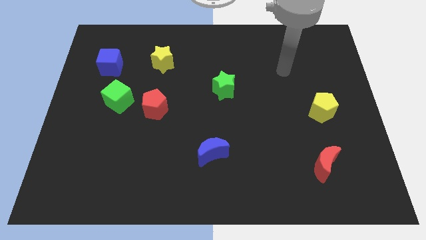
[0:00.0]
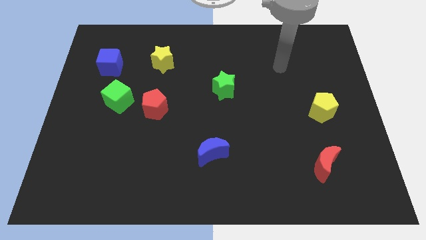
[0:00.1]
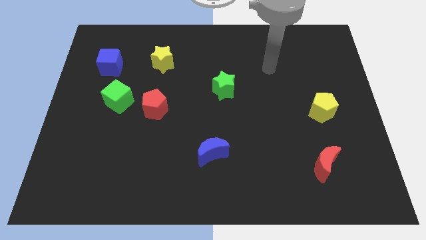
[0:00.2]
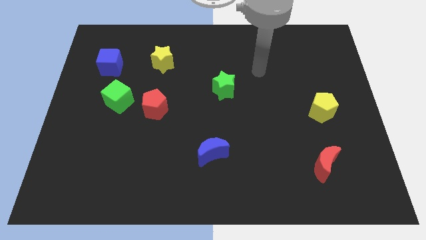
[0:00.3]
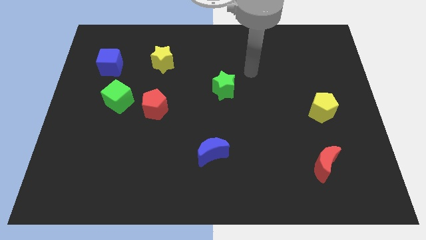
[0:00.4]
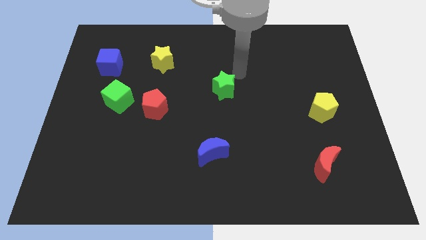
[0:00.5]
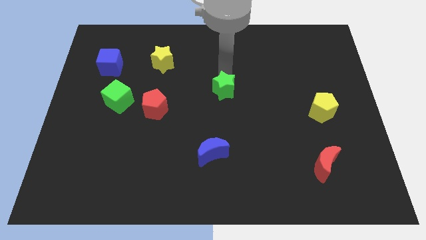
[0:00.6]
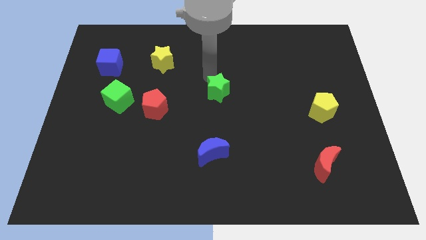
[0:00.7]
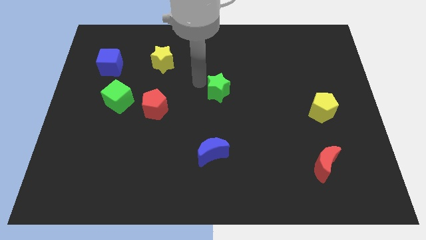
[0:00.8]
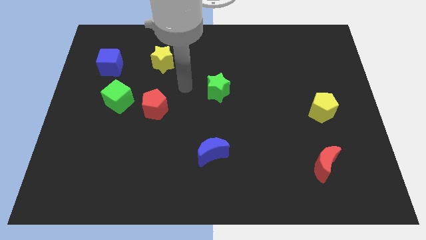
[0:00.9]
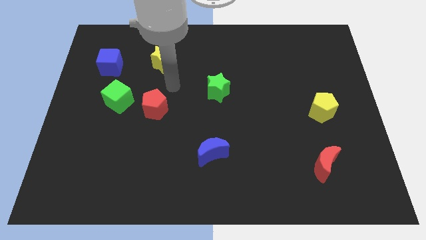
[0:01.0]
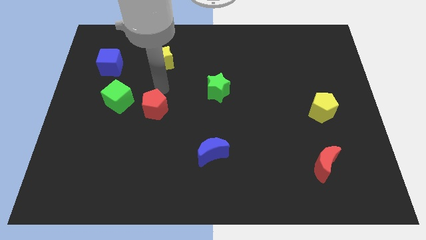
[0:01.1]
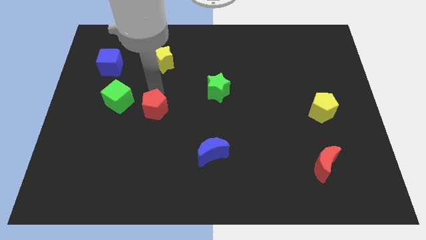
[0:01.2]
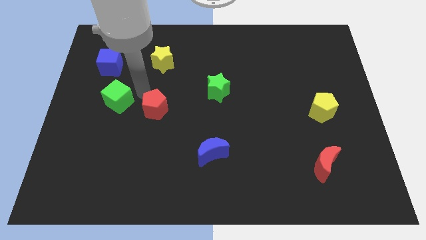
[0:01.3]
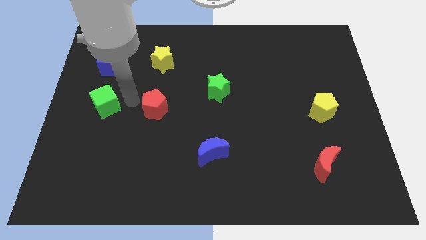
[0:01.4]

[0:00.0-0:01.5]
move the red pentagon away from the green cube

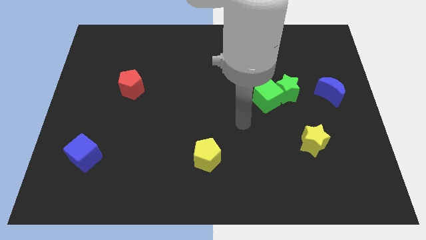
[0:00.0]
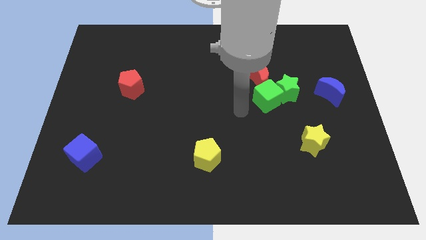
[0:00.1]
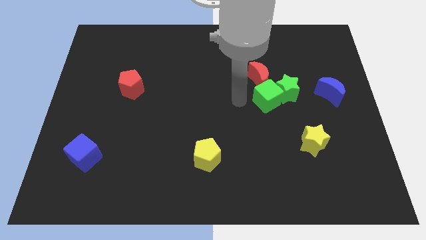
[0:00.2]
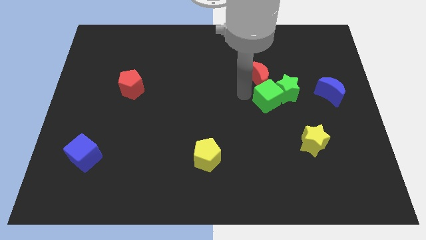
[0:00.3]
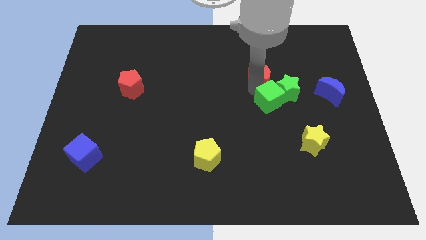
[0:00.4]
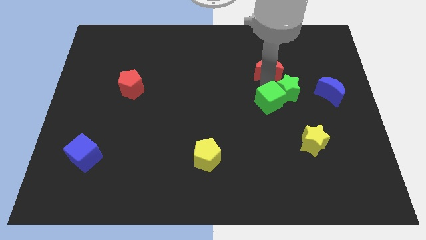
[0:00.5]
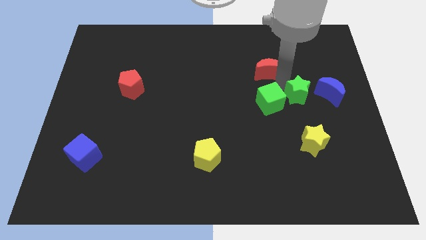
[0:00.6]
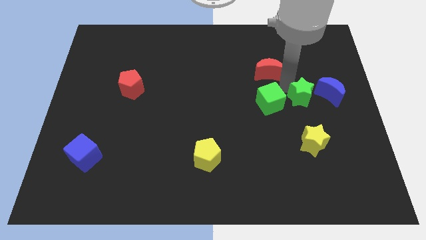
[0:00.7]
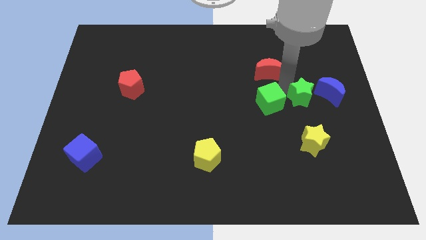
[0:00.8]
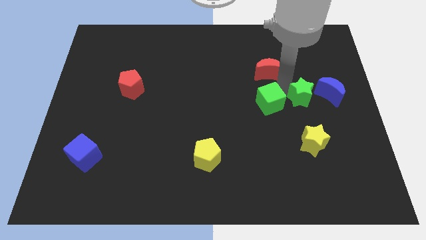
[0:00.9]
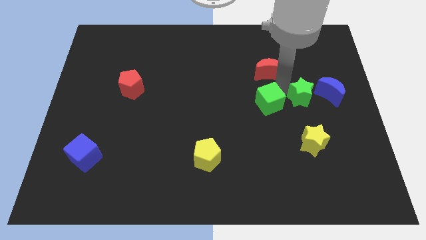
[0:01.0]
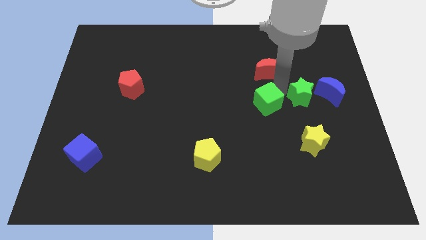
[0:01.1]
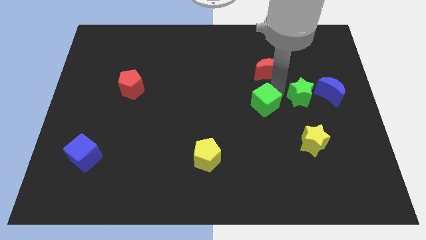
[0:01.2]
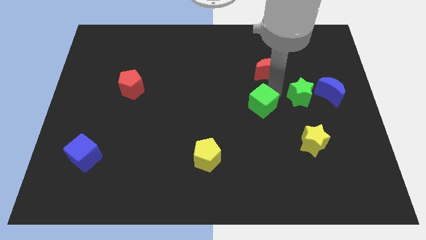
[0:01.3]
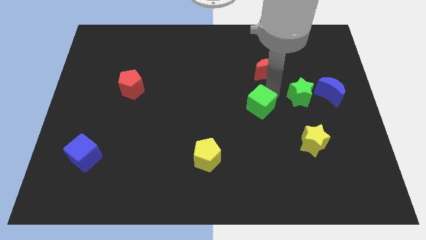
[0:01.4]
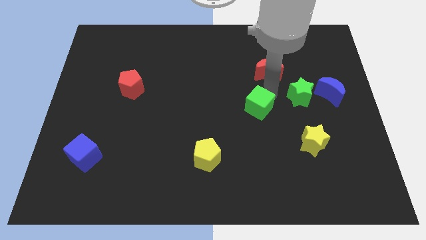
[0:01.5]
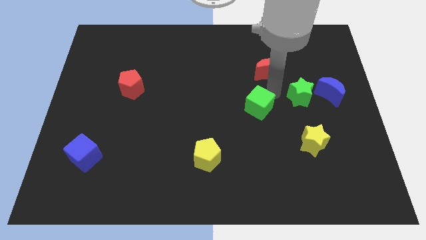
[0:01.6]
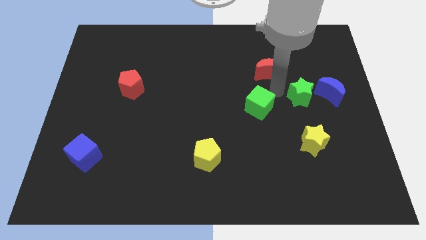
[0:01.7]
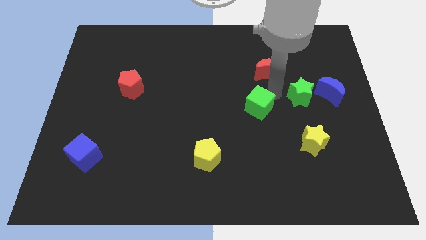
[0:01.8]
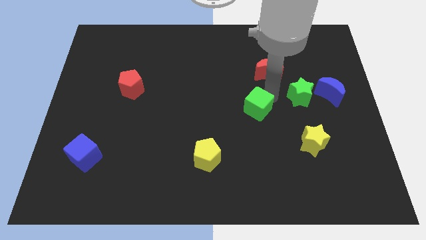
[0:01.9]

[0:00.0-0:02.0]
move the green cube away from the green star and red moon

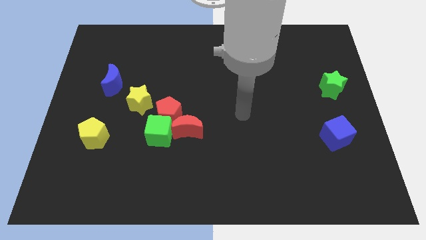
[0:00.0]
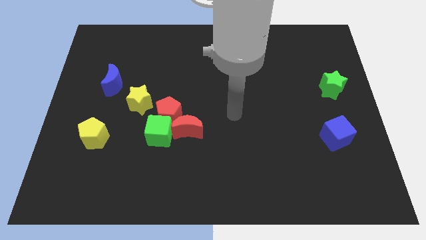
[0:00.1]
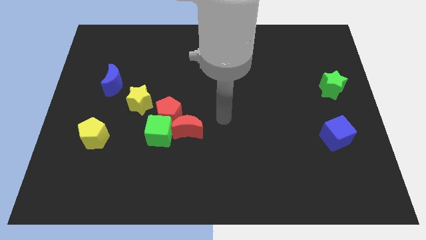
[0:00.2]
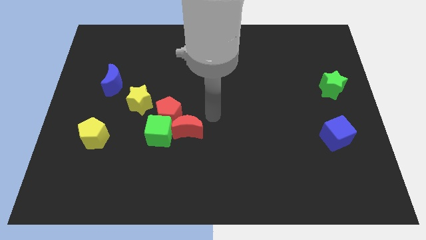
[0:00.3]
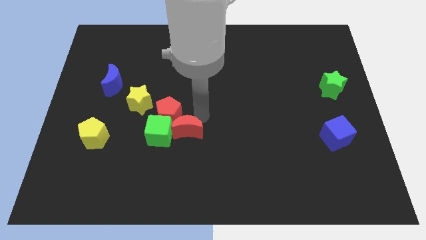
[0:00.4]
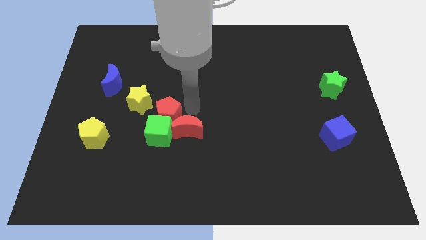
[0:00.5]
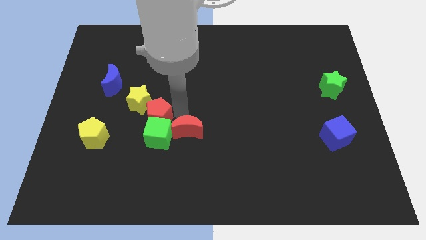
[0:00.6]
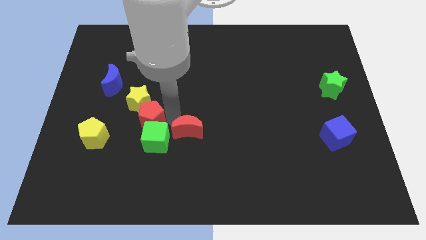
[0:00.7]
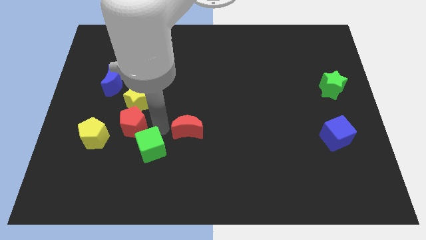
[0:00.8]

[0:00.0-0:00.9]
move the red moon away from the red pentagon and green cube

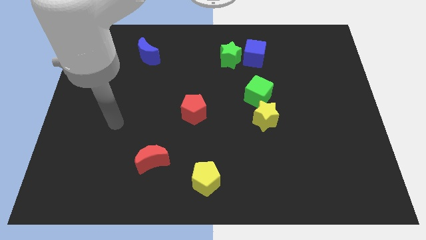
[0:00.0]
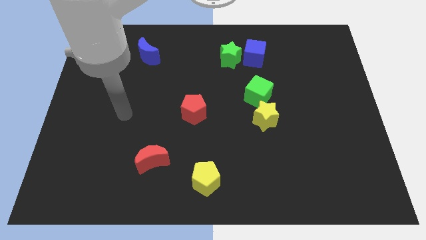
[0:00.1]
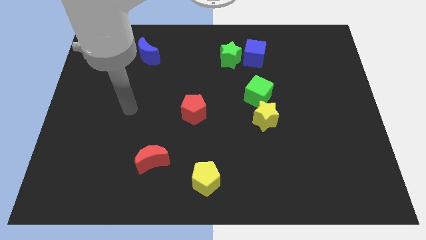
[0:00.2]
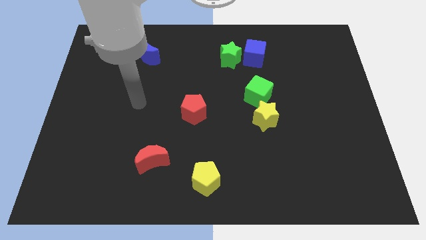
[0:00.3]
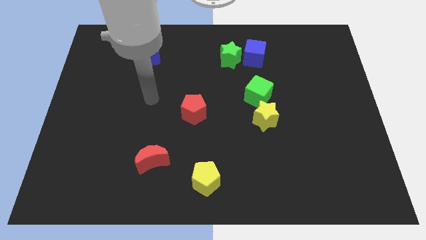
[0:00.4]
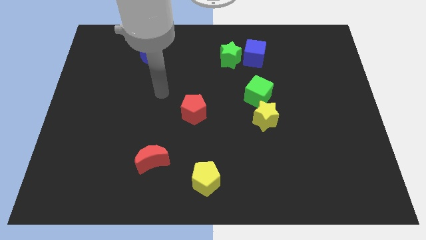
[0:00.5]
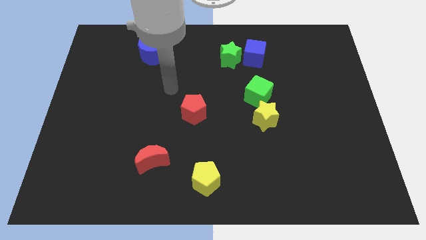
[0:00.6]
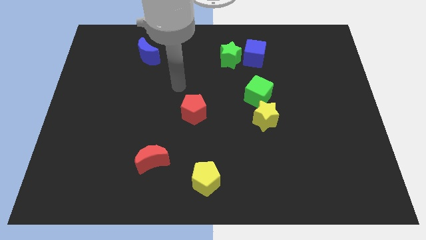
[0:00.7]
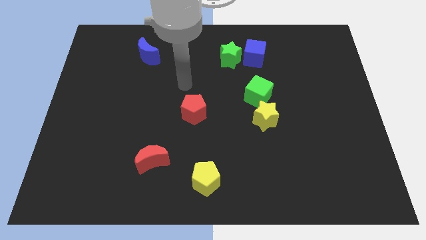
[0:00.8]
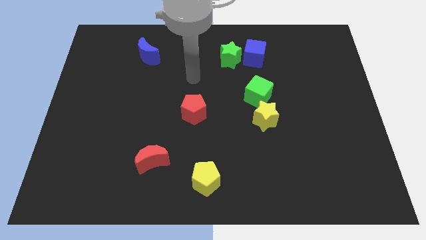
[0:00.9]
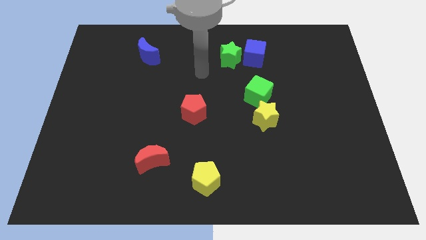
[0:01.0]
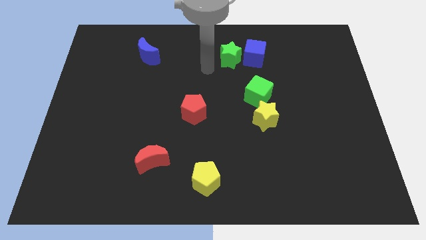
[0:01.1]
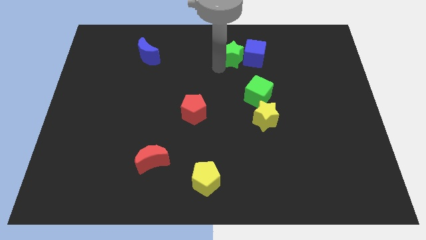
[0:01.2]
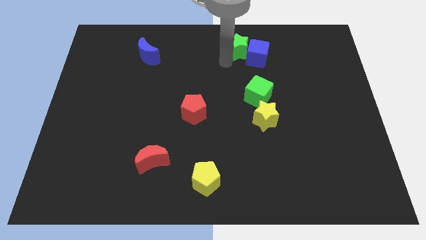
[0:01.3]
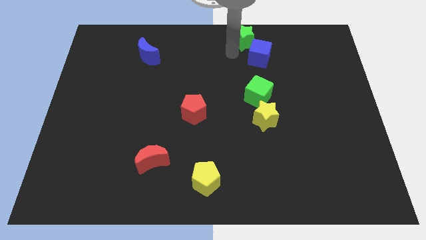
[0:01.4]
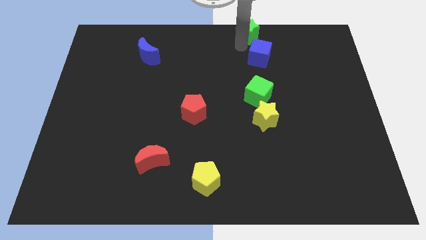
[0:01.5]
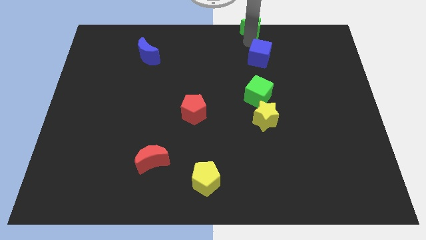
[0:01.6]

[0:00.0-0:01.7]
pull the blue cube apart from the green star

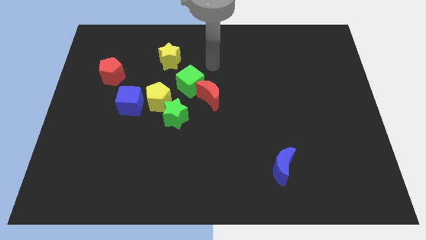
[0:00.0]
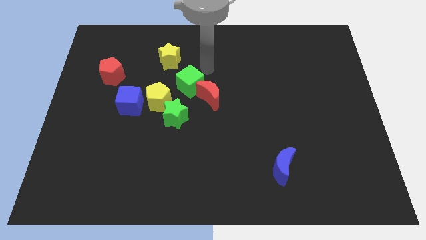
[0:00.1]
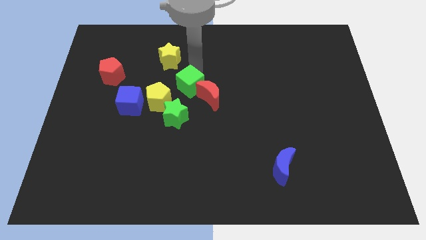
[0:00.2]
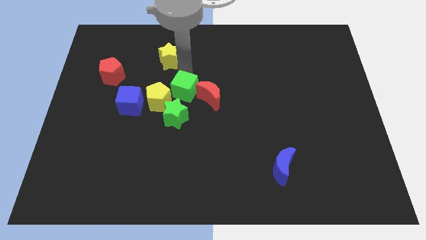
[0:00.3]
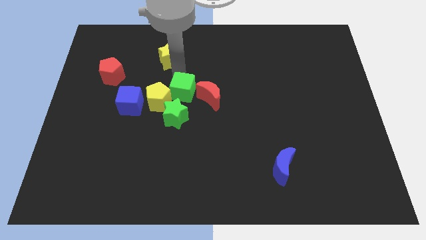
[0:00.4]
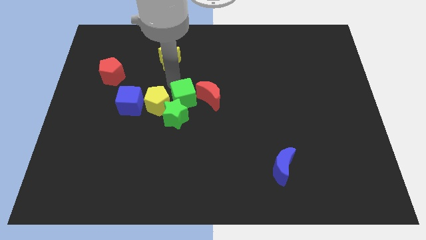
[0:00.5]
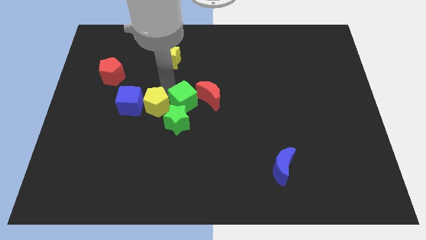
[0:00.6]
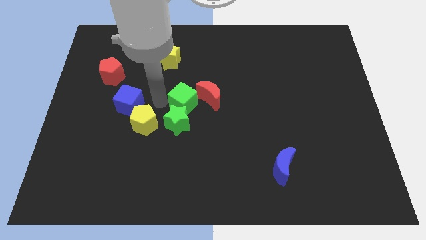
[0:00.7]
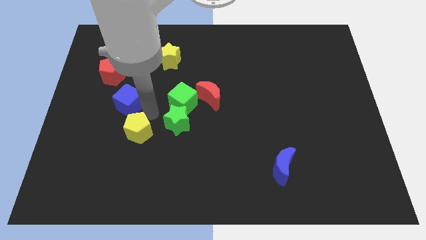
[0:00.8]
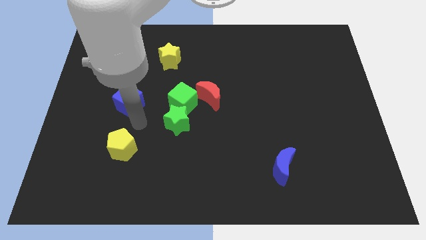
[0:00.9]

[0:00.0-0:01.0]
pull the blue cube apart from the yellow pentagon

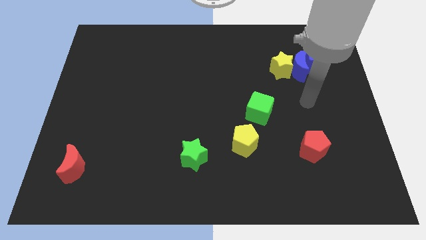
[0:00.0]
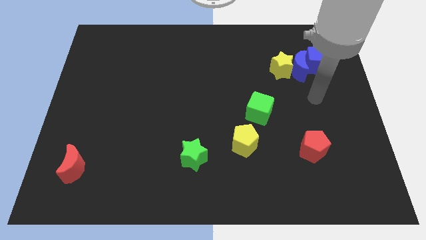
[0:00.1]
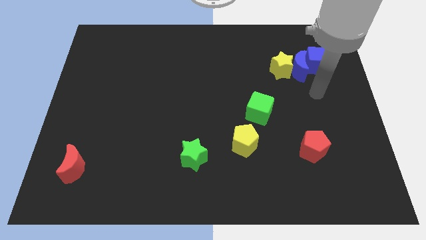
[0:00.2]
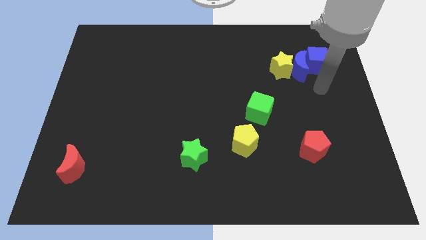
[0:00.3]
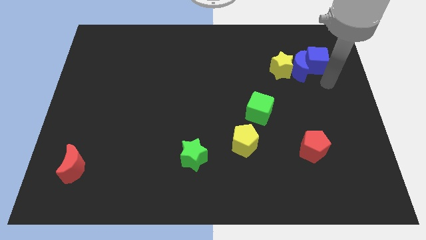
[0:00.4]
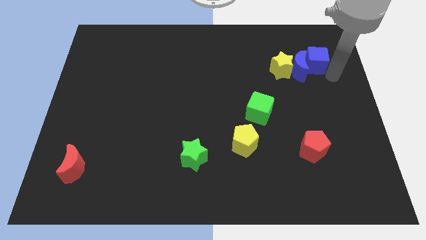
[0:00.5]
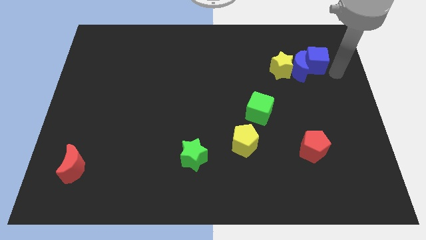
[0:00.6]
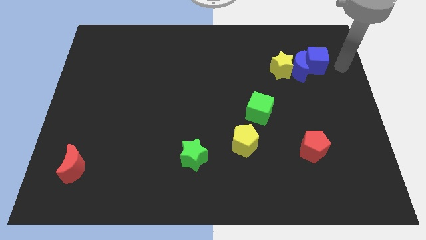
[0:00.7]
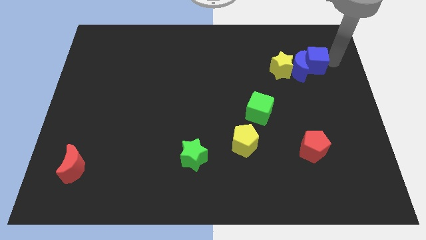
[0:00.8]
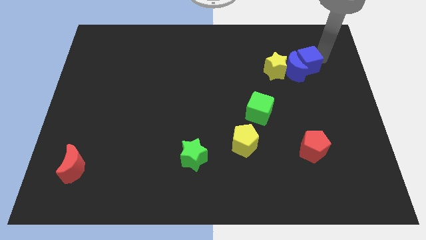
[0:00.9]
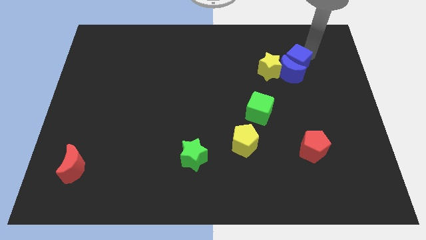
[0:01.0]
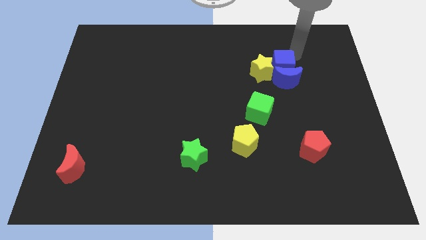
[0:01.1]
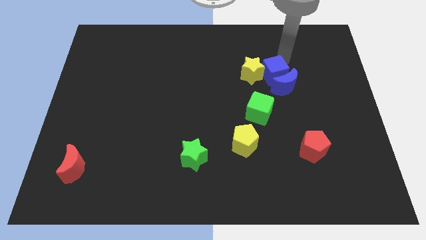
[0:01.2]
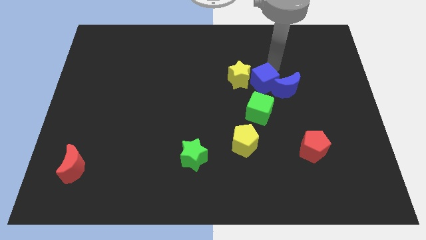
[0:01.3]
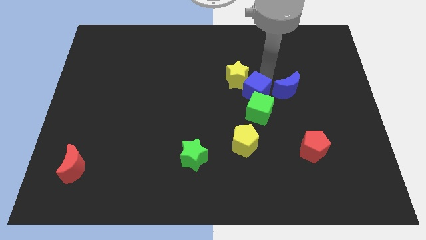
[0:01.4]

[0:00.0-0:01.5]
move the blue moon away from the yellow star and blue cube

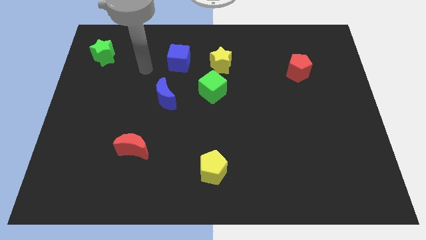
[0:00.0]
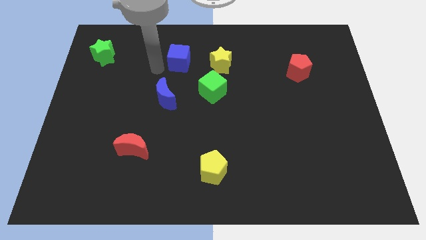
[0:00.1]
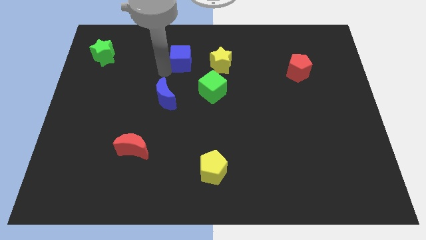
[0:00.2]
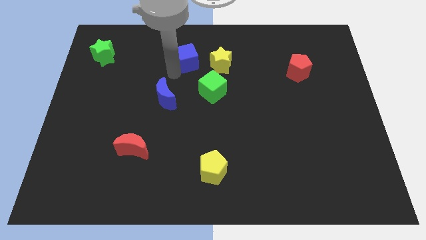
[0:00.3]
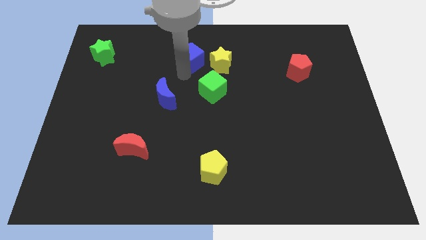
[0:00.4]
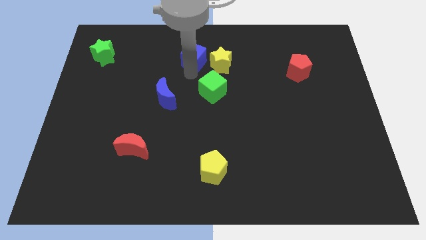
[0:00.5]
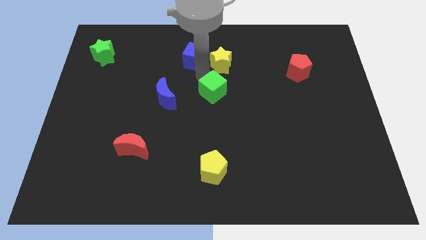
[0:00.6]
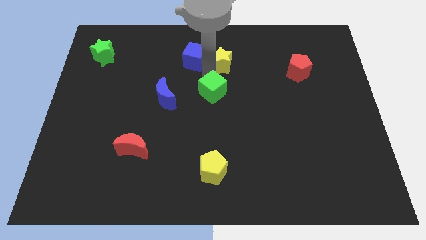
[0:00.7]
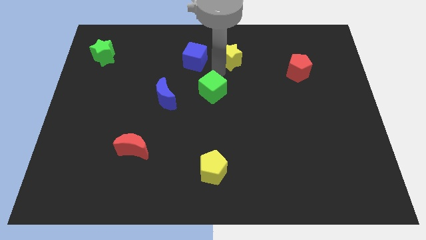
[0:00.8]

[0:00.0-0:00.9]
move the green cube away from the yellow star
